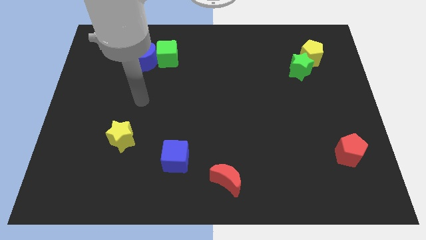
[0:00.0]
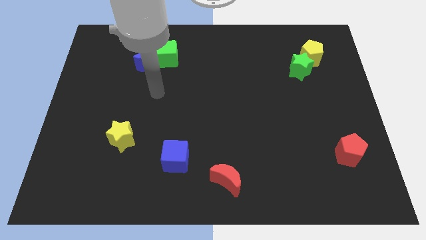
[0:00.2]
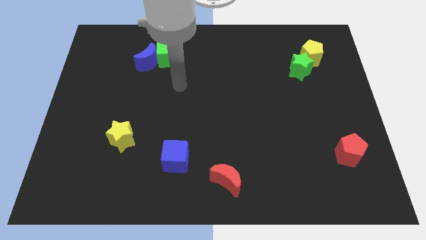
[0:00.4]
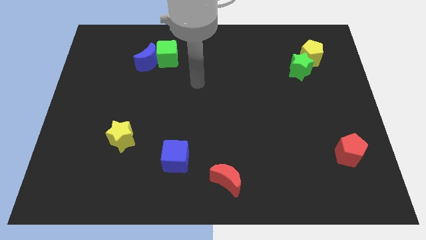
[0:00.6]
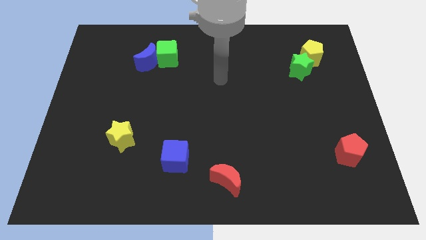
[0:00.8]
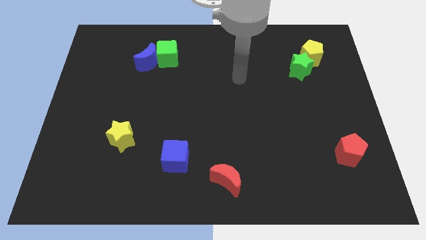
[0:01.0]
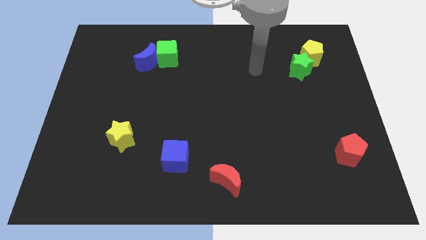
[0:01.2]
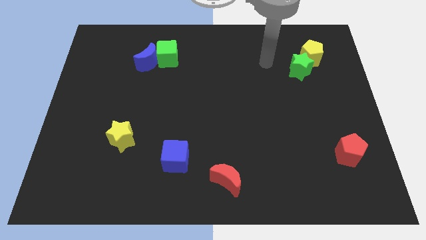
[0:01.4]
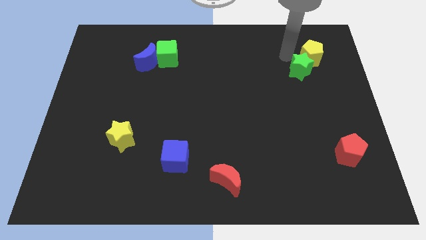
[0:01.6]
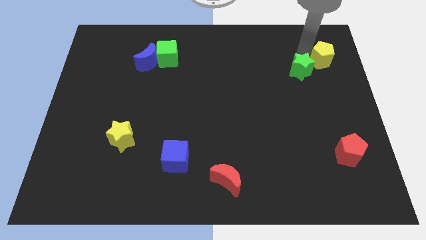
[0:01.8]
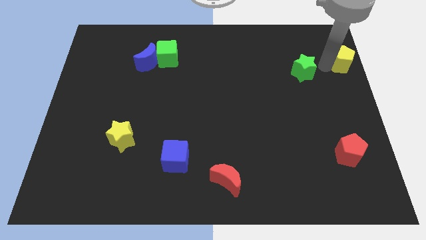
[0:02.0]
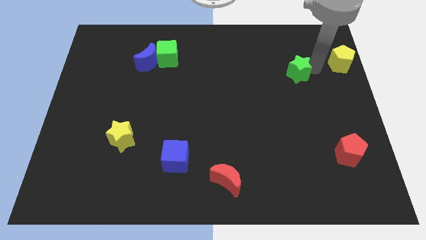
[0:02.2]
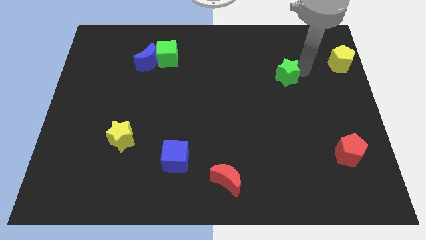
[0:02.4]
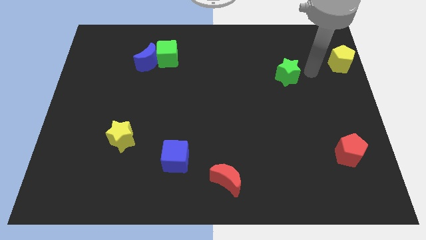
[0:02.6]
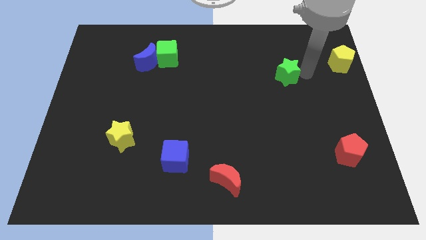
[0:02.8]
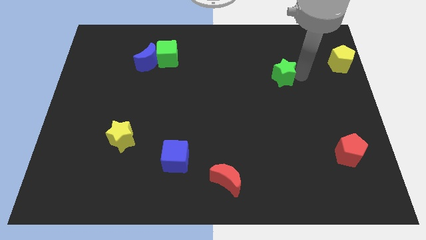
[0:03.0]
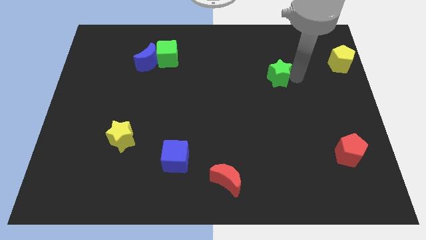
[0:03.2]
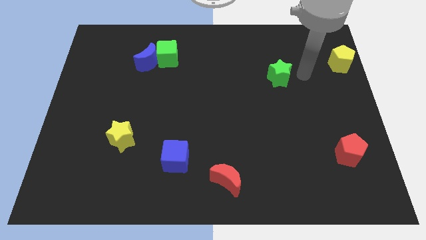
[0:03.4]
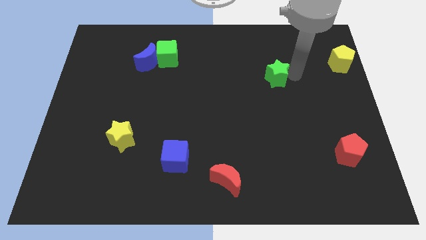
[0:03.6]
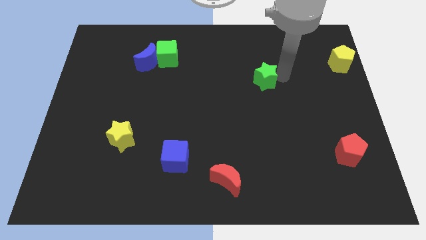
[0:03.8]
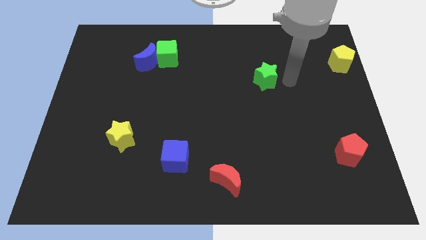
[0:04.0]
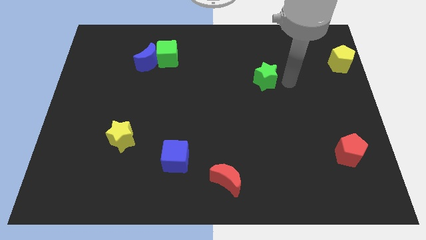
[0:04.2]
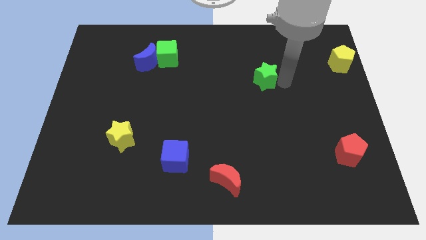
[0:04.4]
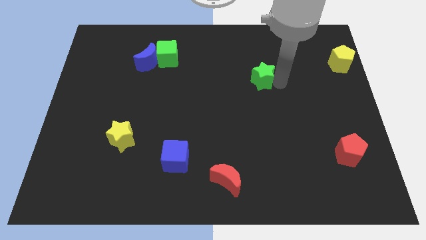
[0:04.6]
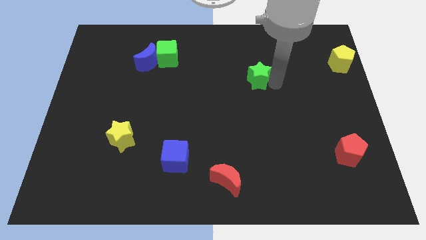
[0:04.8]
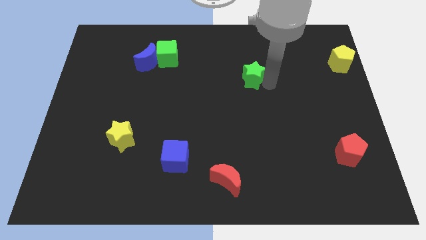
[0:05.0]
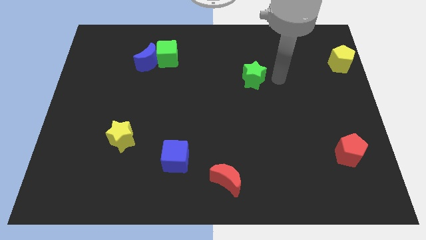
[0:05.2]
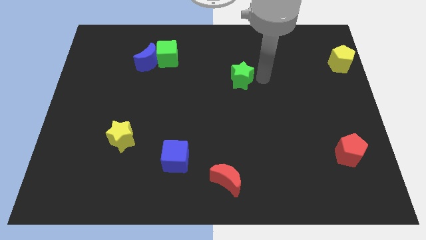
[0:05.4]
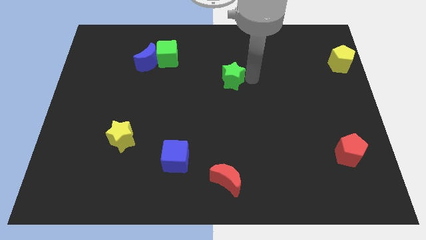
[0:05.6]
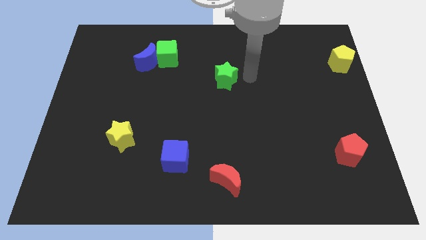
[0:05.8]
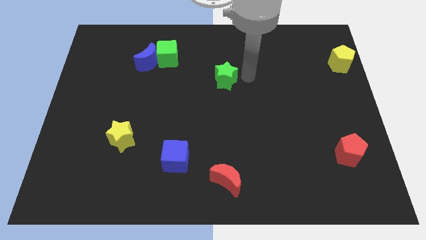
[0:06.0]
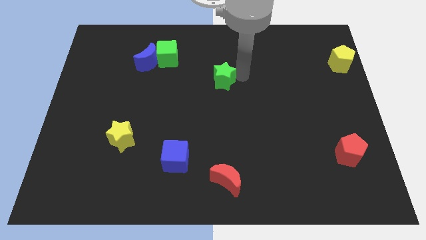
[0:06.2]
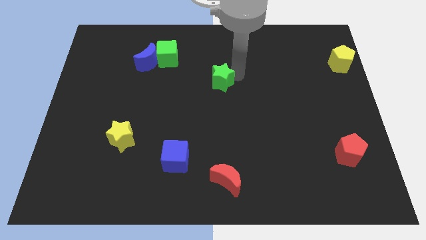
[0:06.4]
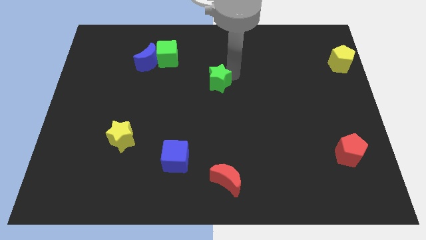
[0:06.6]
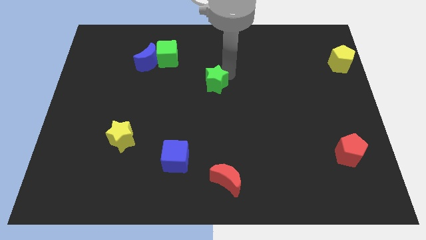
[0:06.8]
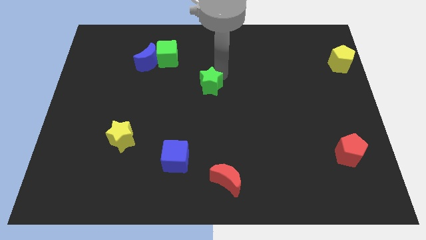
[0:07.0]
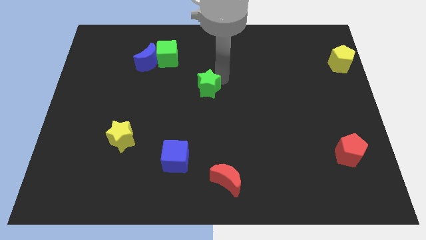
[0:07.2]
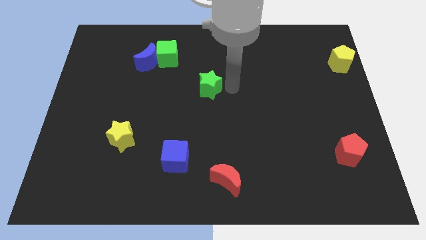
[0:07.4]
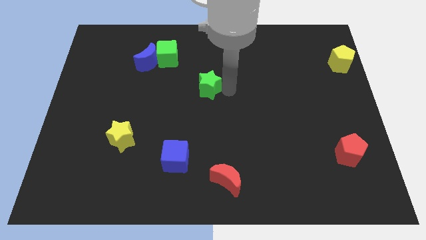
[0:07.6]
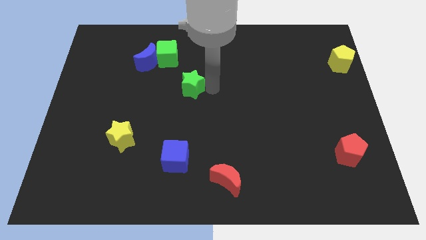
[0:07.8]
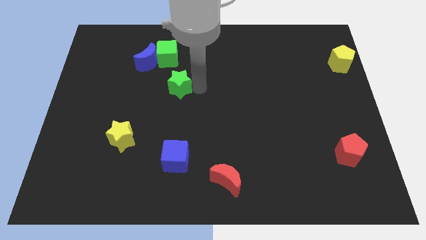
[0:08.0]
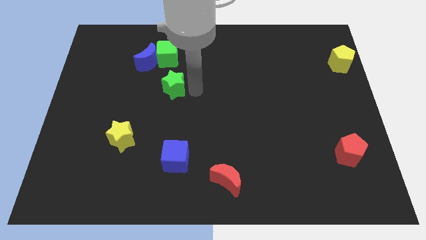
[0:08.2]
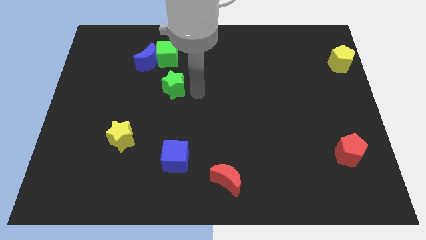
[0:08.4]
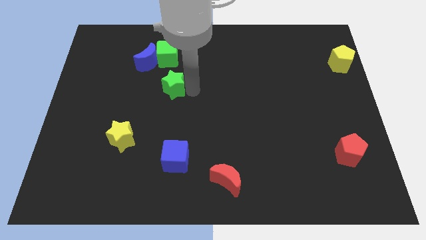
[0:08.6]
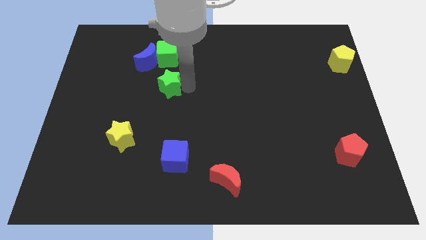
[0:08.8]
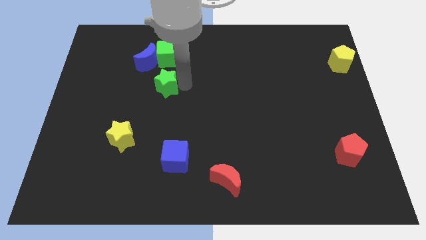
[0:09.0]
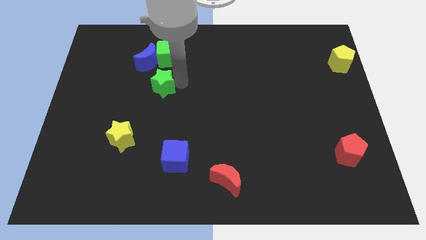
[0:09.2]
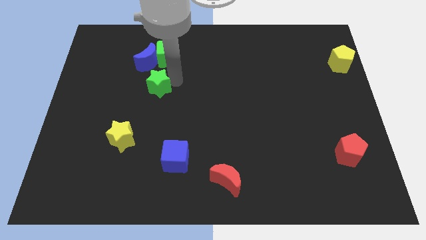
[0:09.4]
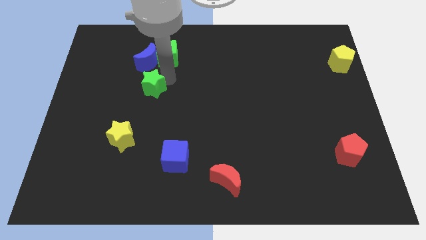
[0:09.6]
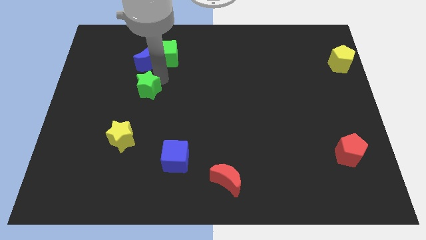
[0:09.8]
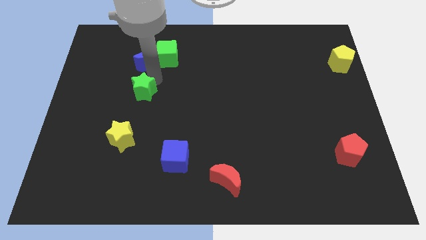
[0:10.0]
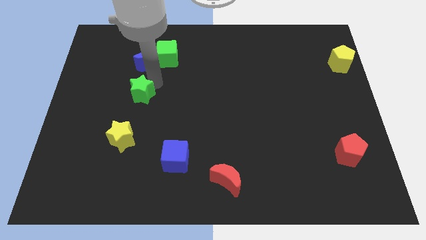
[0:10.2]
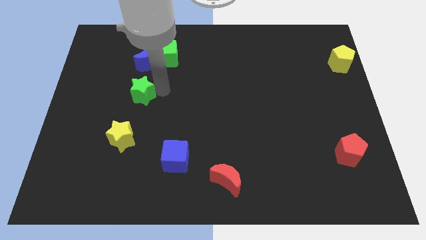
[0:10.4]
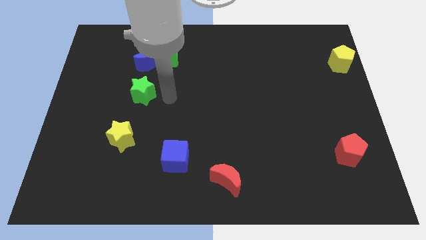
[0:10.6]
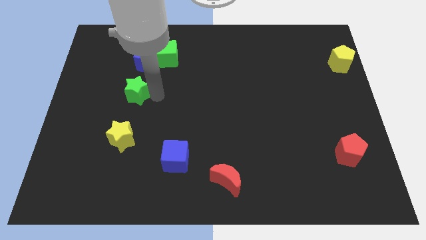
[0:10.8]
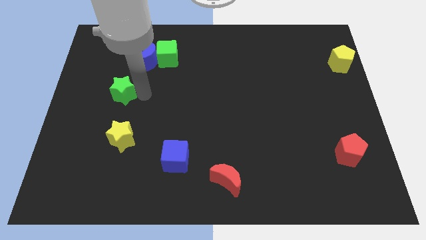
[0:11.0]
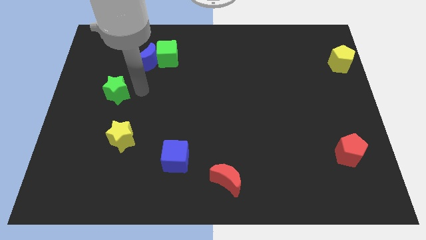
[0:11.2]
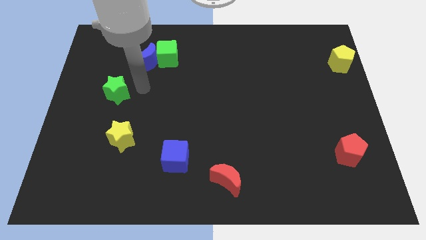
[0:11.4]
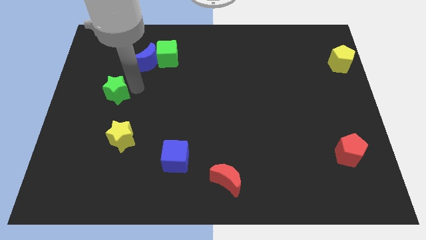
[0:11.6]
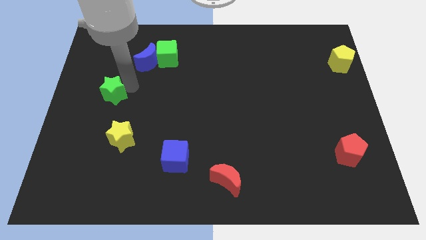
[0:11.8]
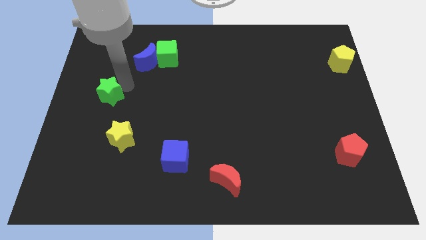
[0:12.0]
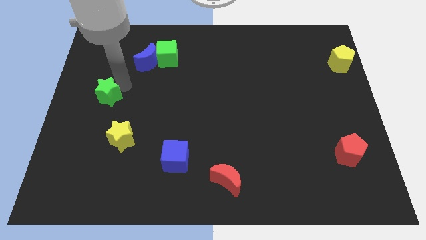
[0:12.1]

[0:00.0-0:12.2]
move the green star to the center left

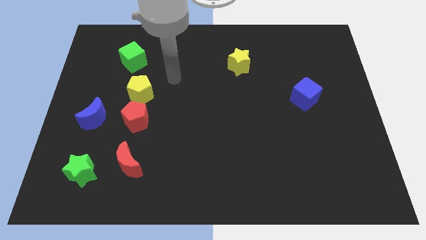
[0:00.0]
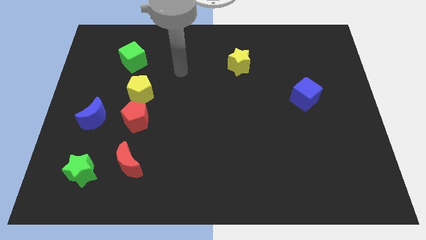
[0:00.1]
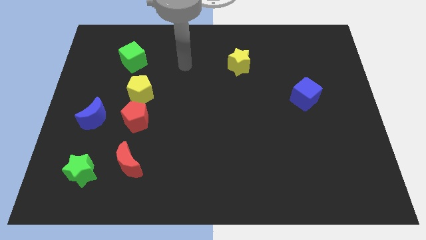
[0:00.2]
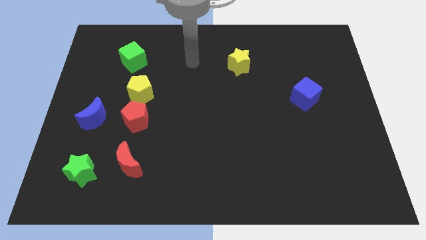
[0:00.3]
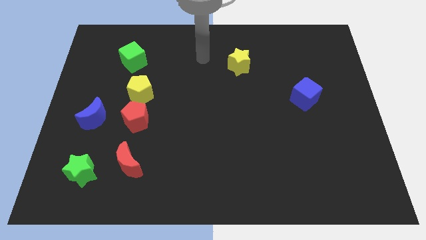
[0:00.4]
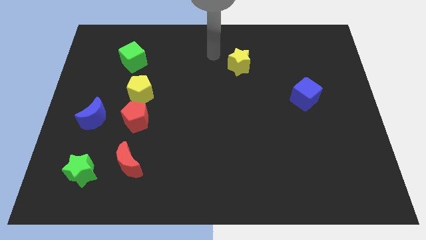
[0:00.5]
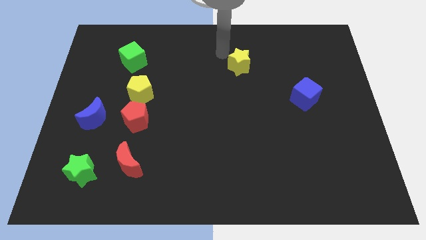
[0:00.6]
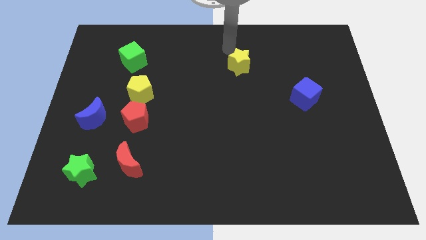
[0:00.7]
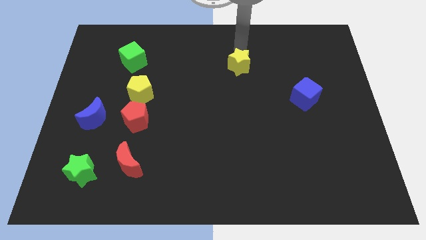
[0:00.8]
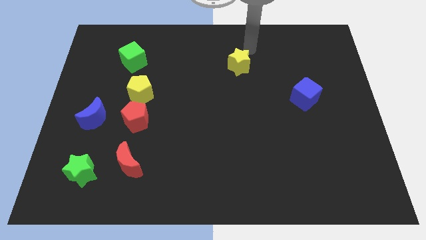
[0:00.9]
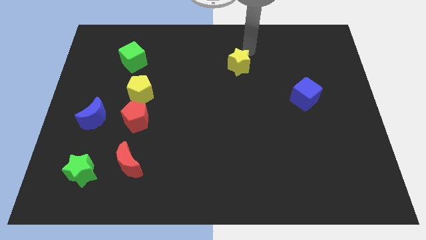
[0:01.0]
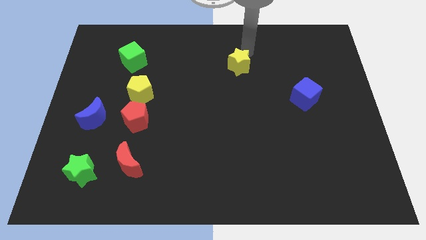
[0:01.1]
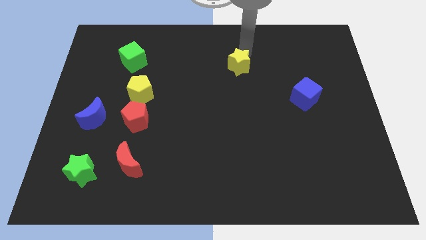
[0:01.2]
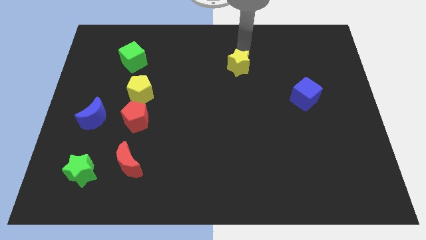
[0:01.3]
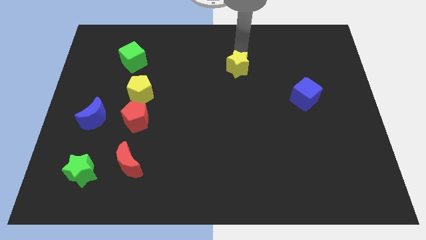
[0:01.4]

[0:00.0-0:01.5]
move the yellow star to the middle
